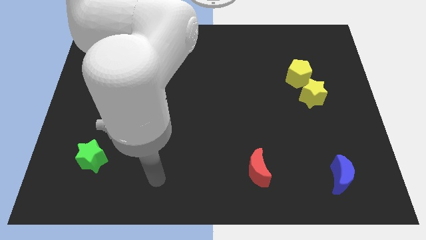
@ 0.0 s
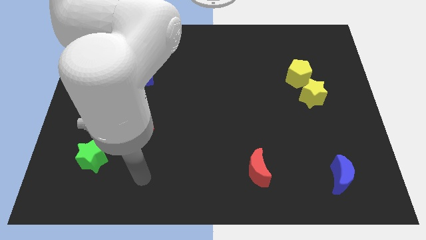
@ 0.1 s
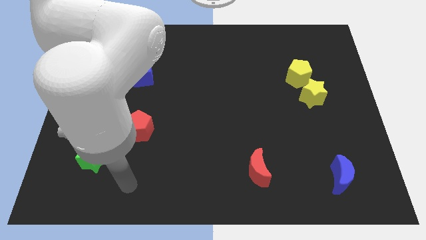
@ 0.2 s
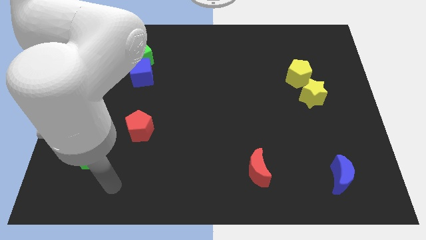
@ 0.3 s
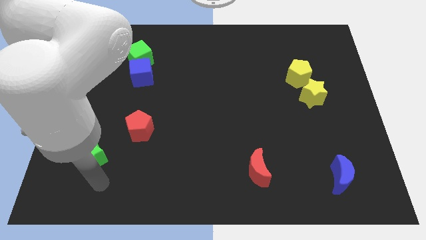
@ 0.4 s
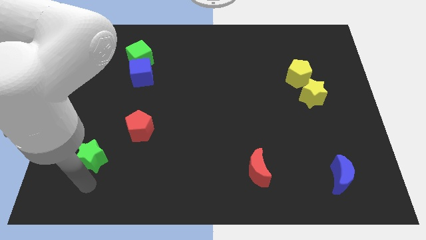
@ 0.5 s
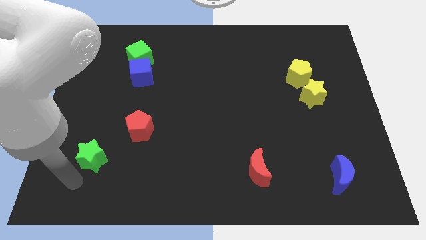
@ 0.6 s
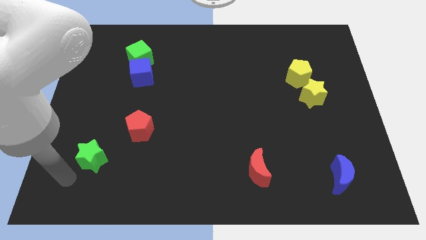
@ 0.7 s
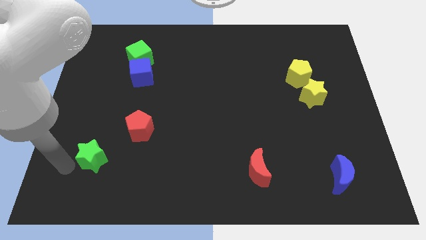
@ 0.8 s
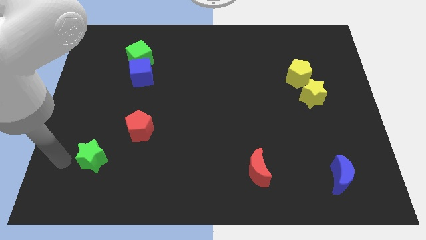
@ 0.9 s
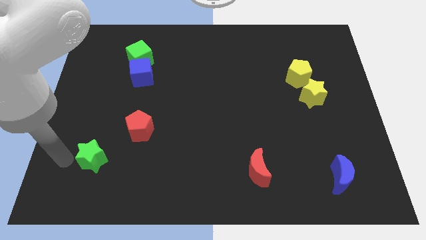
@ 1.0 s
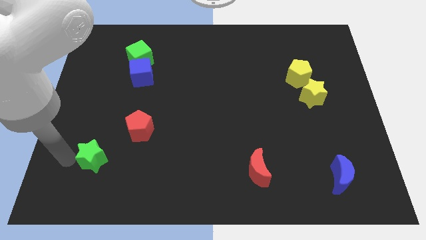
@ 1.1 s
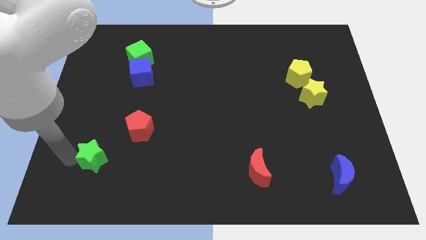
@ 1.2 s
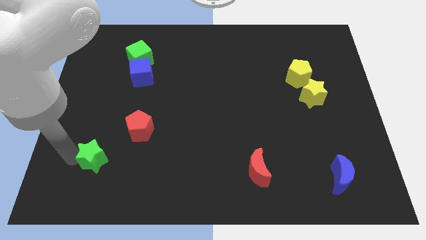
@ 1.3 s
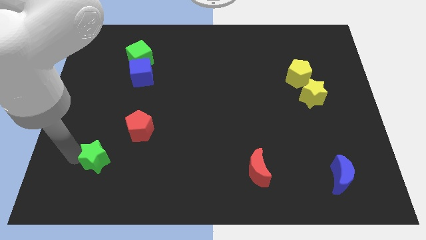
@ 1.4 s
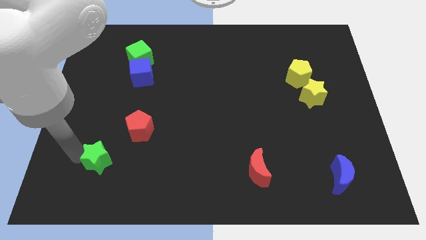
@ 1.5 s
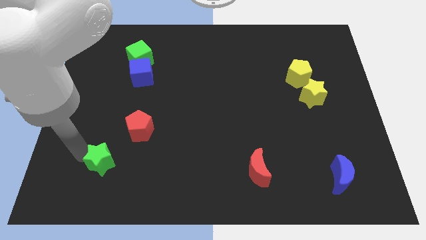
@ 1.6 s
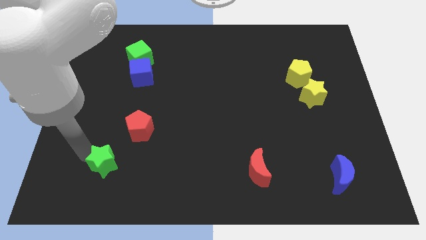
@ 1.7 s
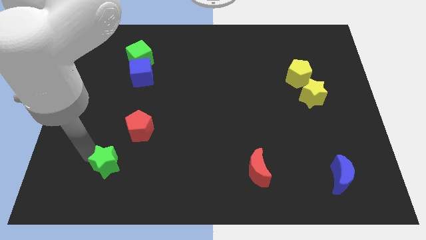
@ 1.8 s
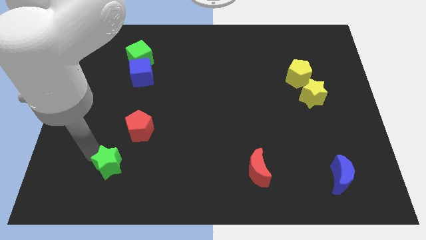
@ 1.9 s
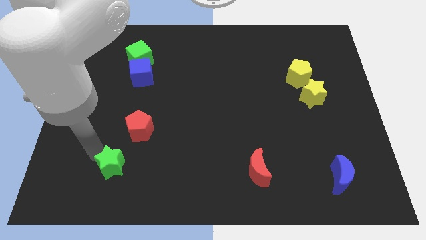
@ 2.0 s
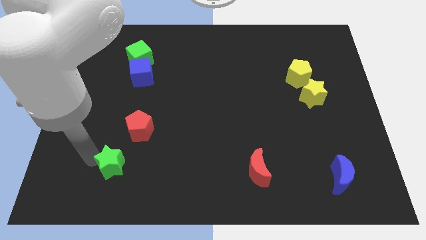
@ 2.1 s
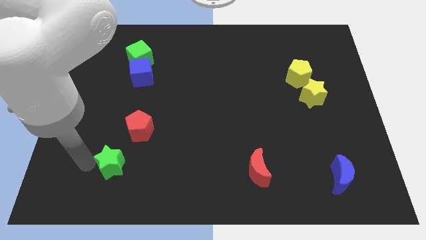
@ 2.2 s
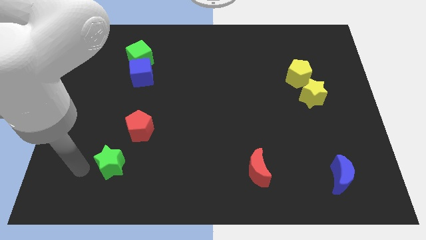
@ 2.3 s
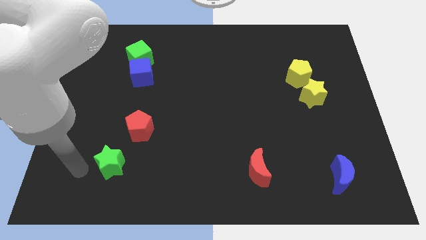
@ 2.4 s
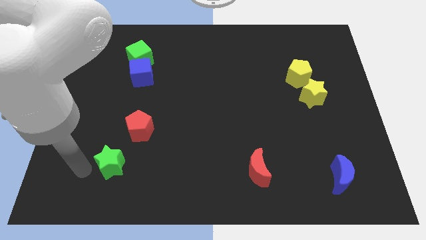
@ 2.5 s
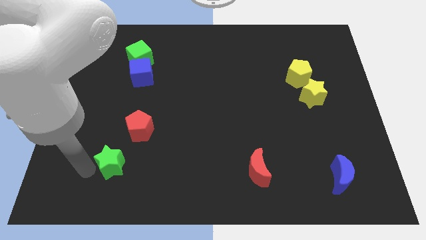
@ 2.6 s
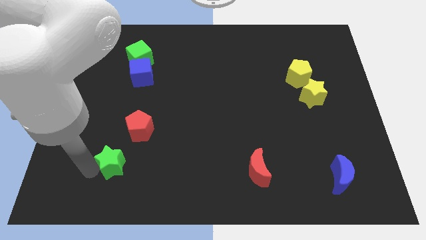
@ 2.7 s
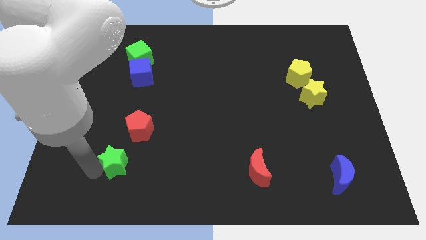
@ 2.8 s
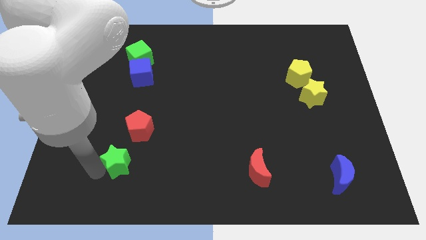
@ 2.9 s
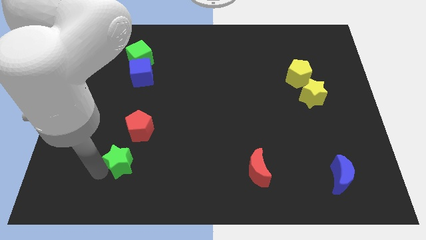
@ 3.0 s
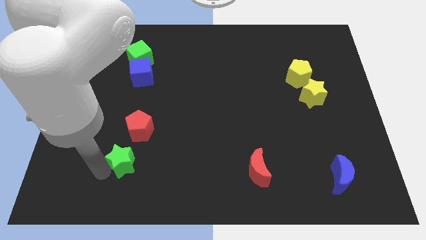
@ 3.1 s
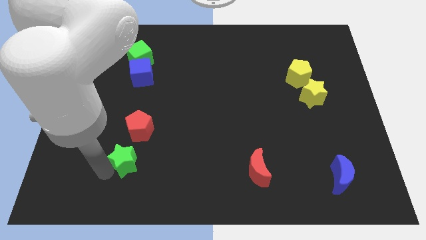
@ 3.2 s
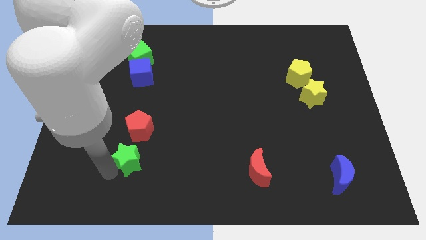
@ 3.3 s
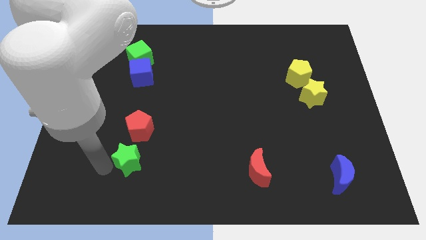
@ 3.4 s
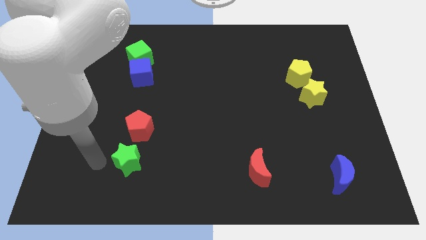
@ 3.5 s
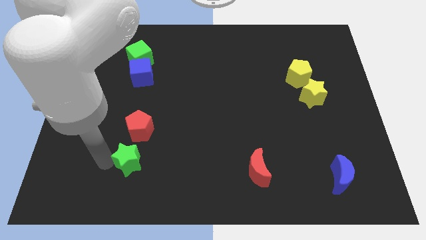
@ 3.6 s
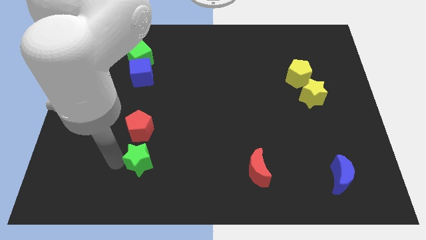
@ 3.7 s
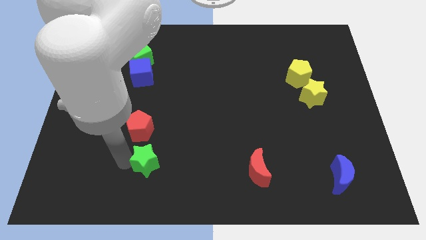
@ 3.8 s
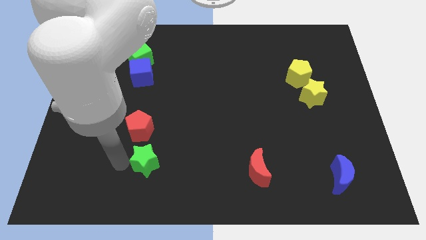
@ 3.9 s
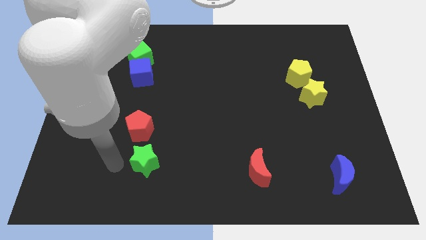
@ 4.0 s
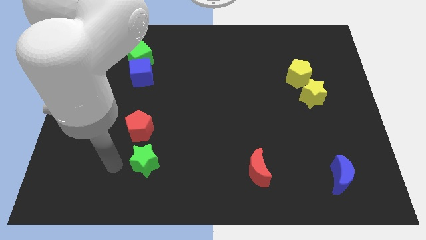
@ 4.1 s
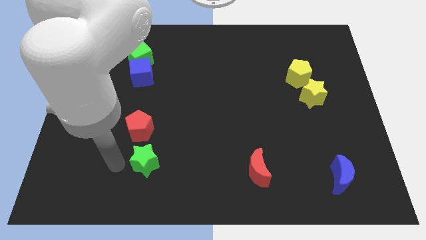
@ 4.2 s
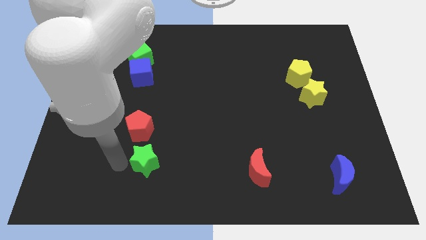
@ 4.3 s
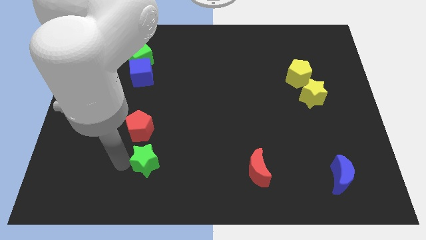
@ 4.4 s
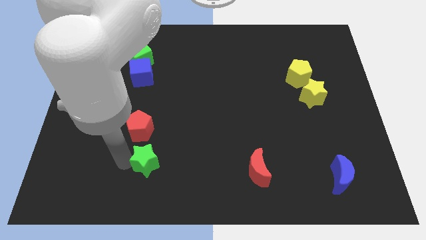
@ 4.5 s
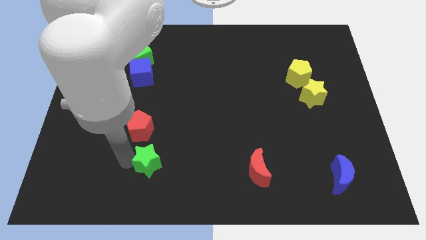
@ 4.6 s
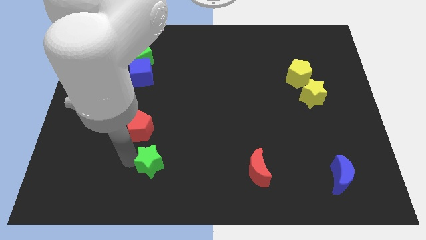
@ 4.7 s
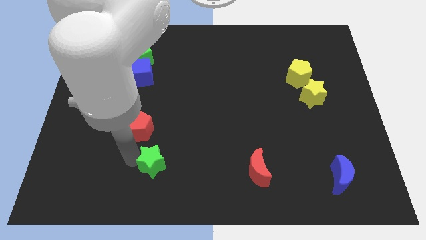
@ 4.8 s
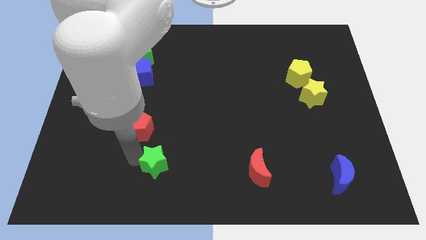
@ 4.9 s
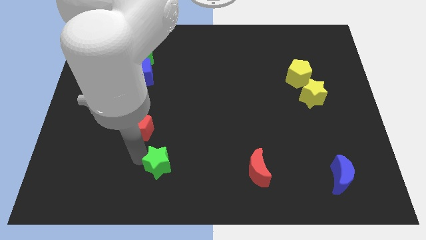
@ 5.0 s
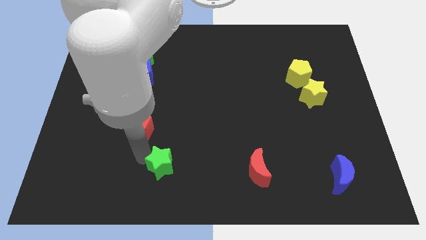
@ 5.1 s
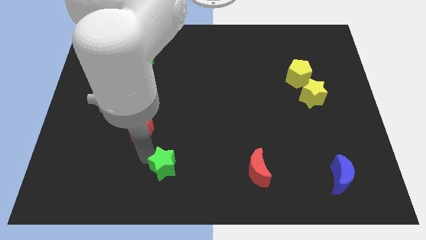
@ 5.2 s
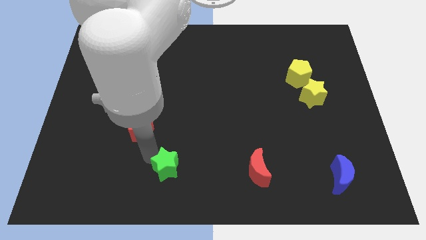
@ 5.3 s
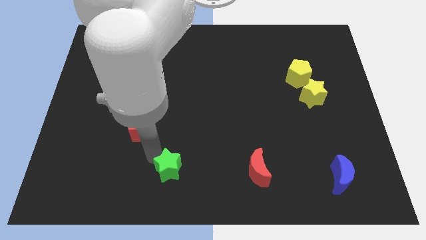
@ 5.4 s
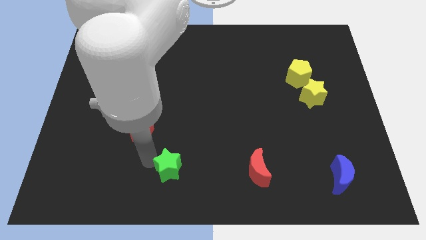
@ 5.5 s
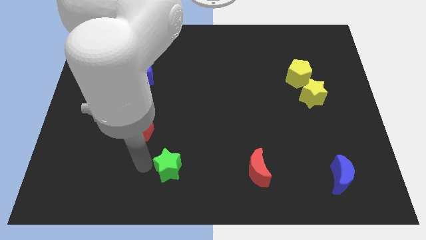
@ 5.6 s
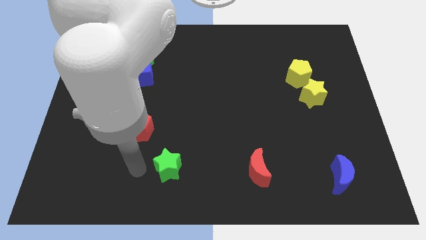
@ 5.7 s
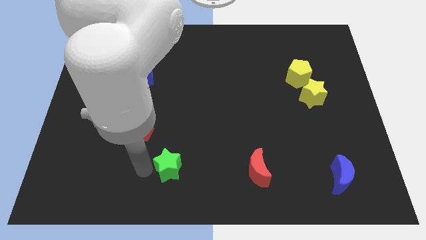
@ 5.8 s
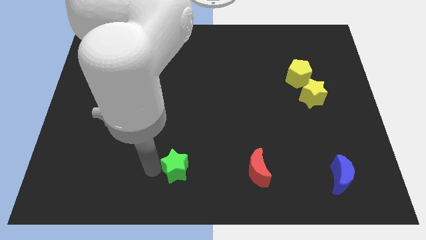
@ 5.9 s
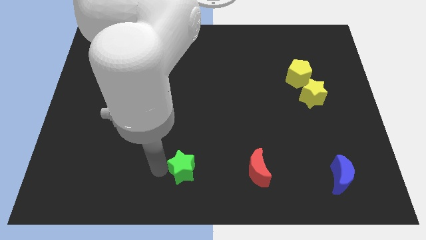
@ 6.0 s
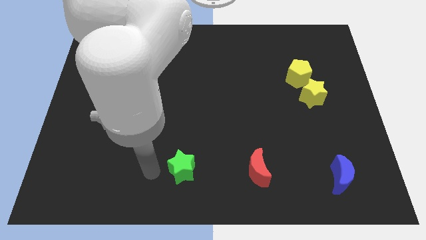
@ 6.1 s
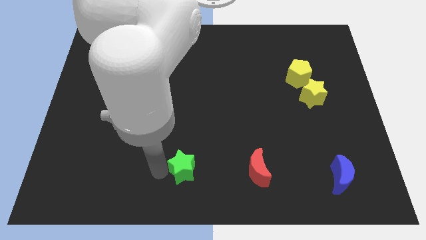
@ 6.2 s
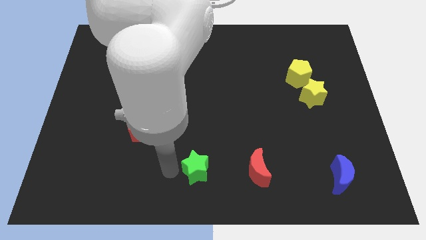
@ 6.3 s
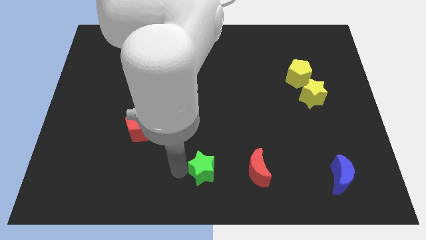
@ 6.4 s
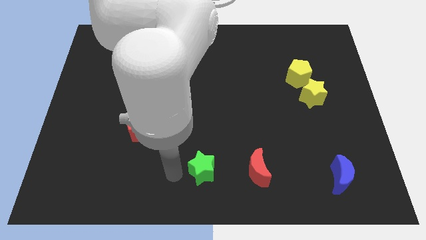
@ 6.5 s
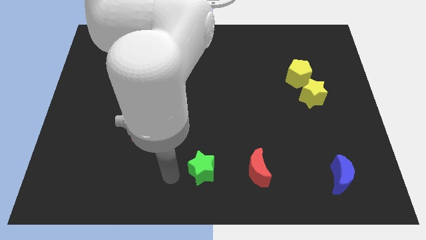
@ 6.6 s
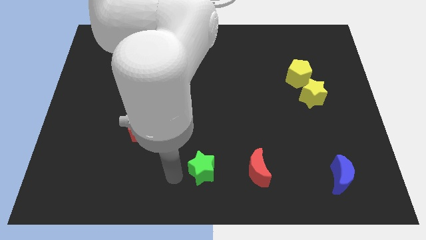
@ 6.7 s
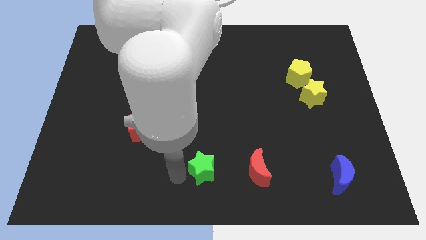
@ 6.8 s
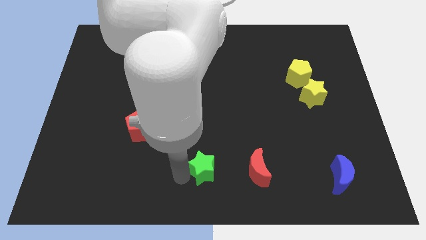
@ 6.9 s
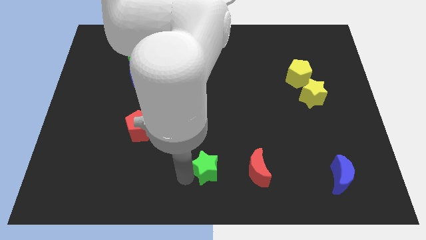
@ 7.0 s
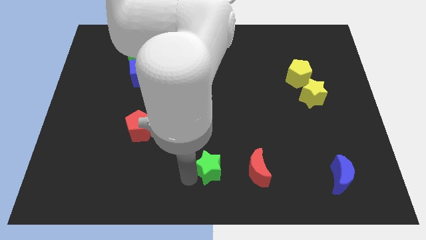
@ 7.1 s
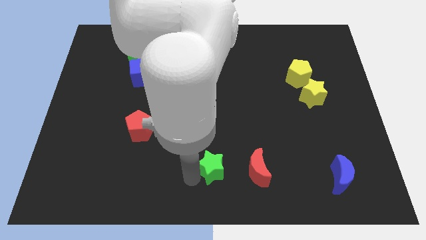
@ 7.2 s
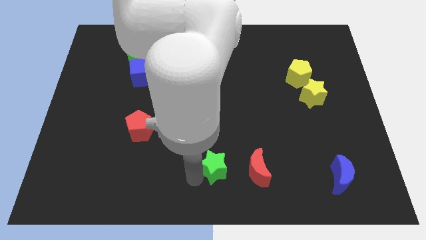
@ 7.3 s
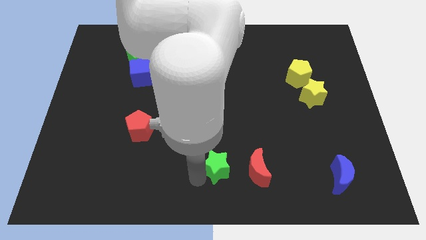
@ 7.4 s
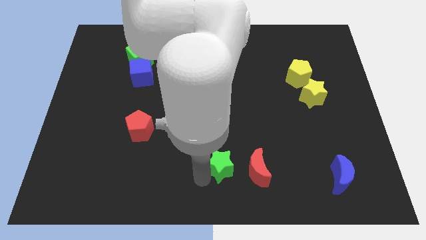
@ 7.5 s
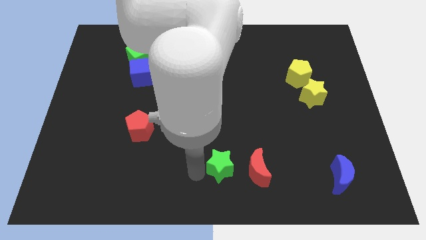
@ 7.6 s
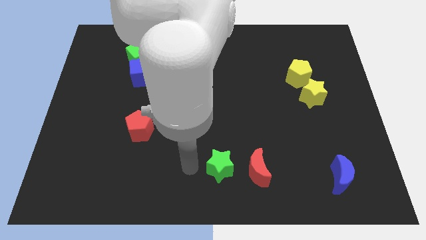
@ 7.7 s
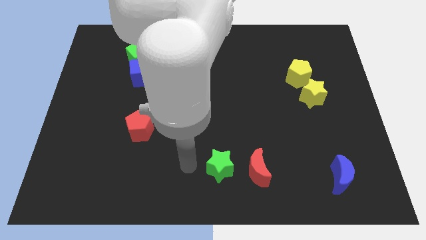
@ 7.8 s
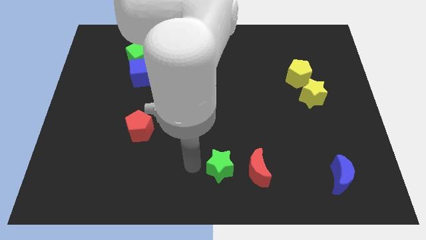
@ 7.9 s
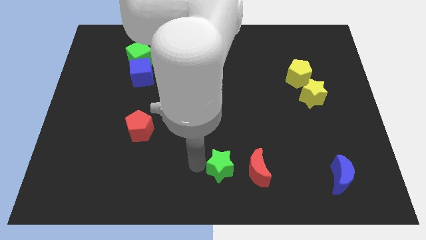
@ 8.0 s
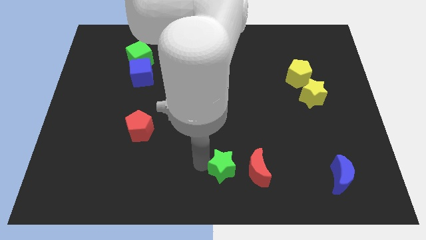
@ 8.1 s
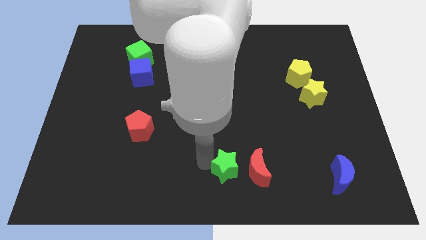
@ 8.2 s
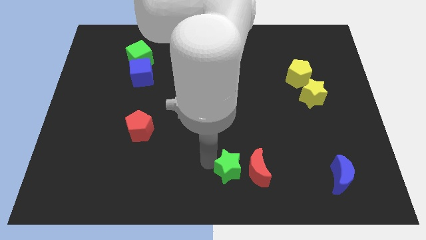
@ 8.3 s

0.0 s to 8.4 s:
move the green star to the red moon
